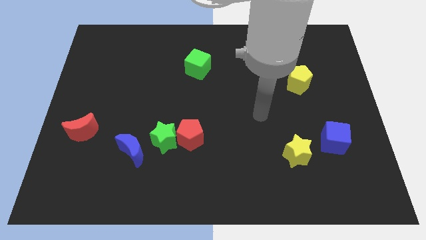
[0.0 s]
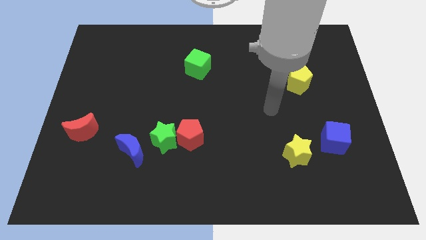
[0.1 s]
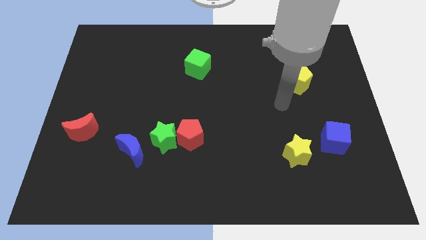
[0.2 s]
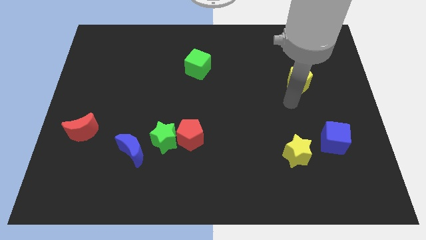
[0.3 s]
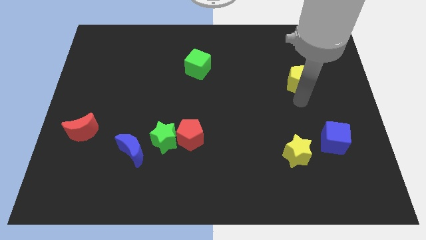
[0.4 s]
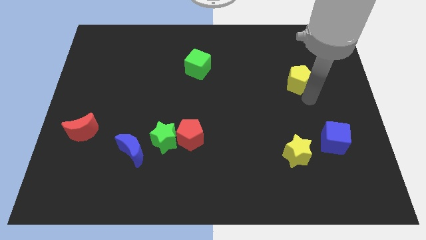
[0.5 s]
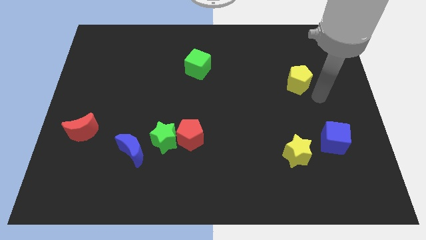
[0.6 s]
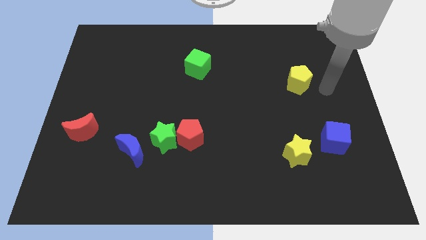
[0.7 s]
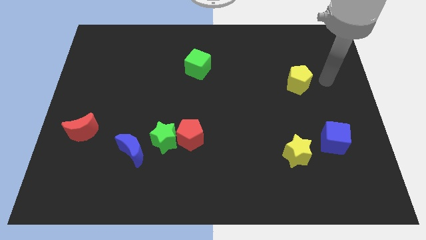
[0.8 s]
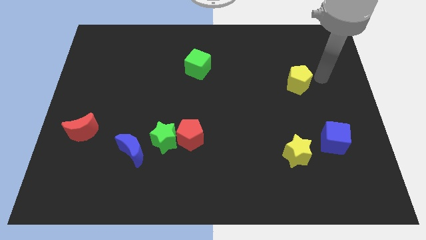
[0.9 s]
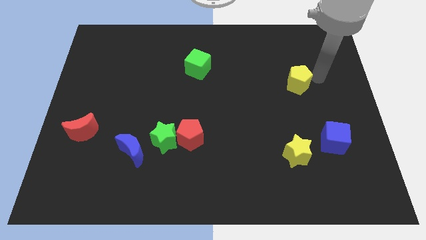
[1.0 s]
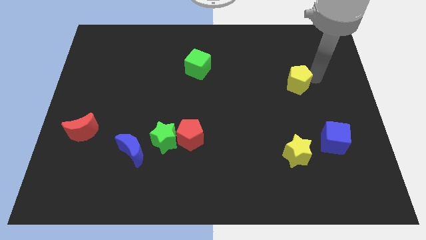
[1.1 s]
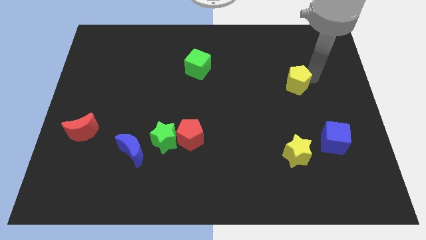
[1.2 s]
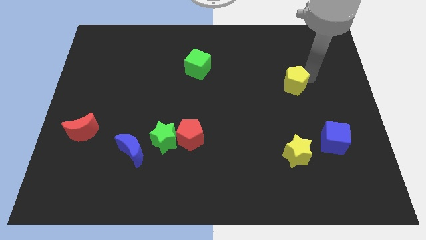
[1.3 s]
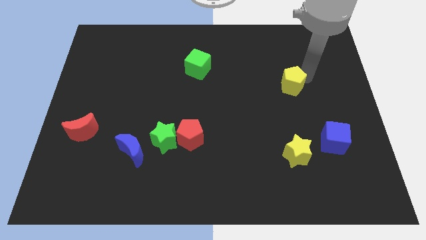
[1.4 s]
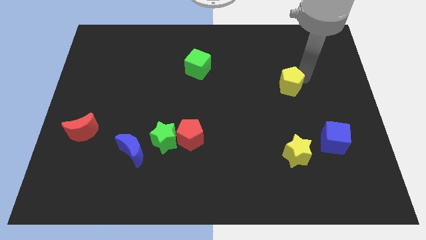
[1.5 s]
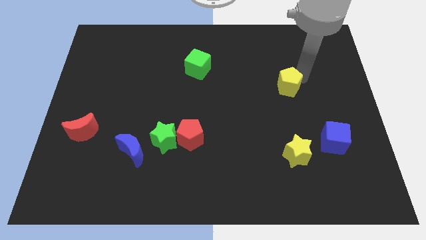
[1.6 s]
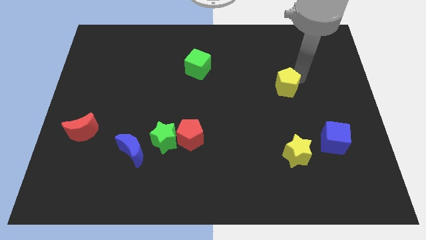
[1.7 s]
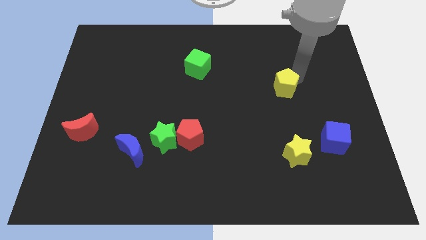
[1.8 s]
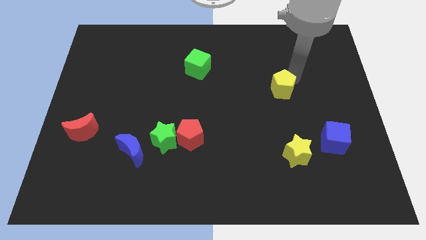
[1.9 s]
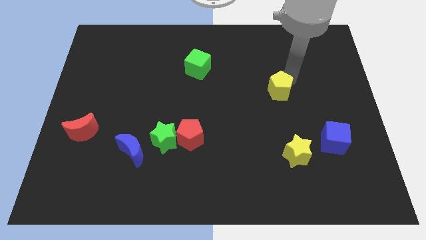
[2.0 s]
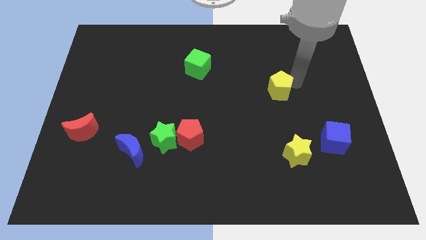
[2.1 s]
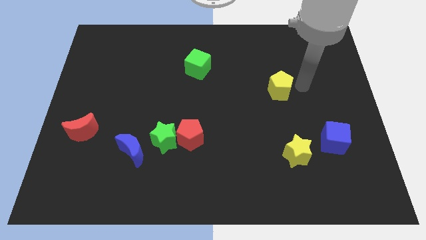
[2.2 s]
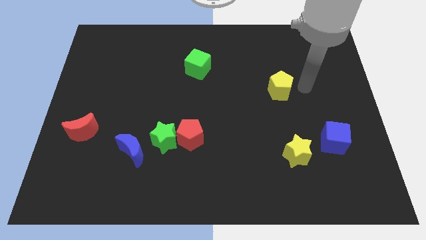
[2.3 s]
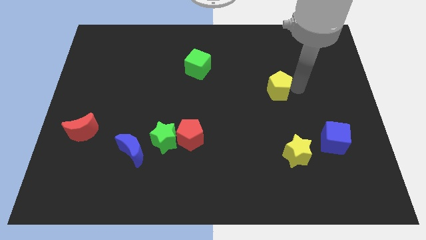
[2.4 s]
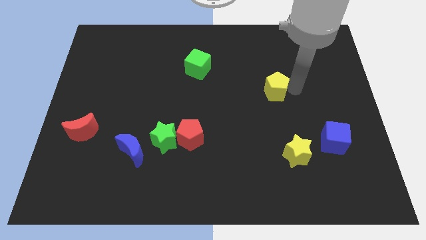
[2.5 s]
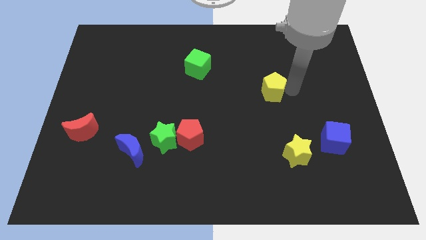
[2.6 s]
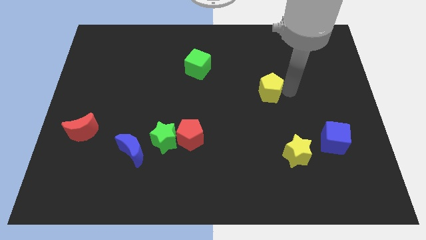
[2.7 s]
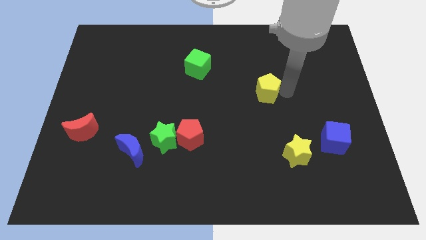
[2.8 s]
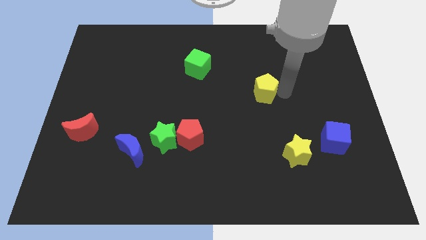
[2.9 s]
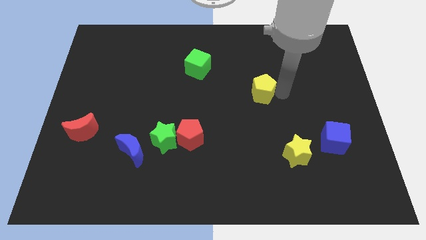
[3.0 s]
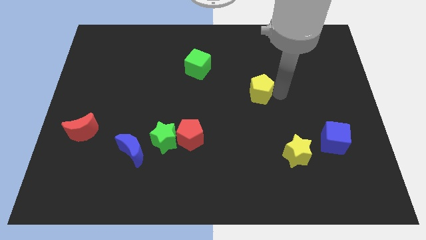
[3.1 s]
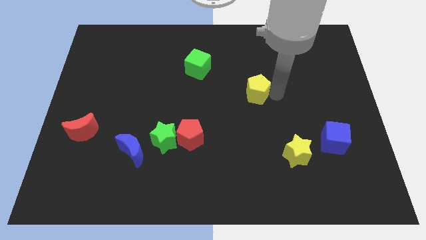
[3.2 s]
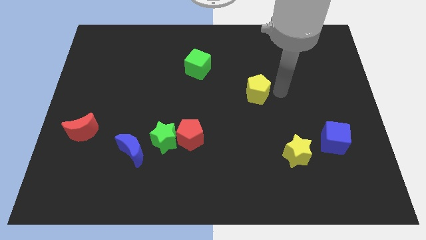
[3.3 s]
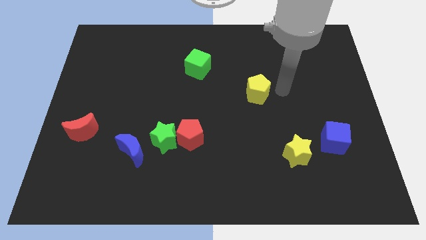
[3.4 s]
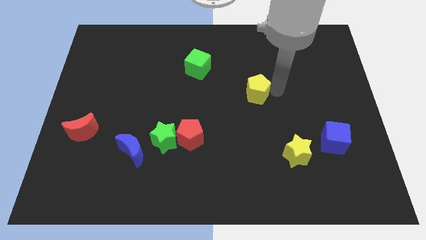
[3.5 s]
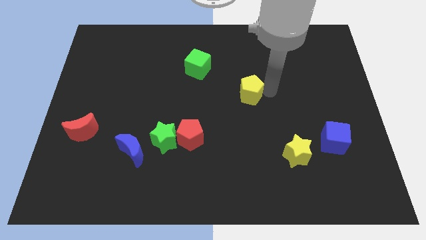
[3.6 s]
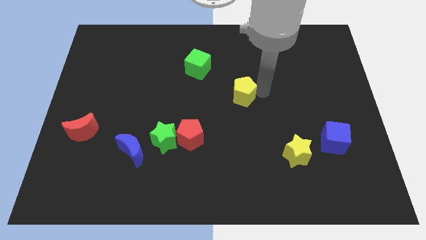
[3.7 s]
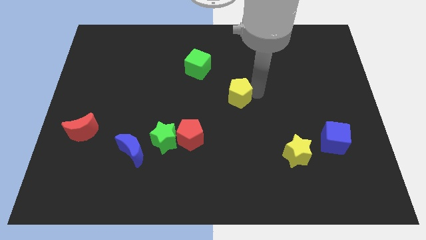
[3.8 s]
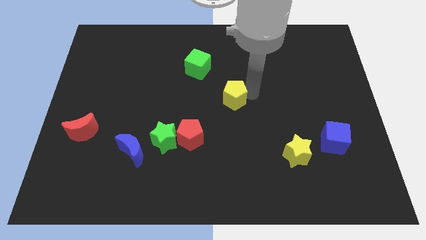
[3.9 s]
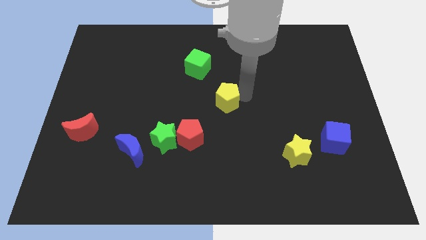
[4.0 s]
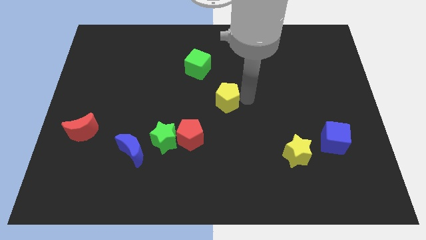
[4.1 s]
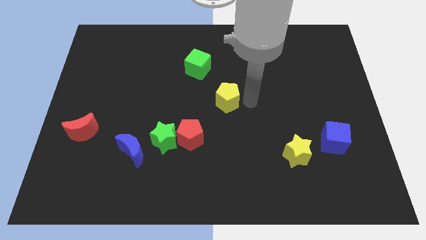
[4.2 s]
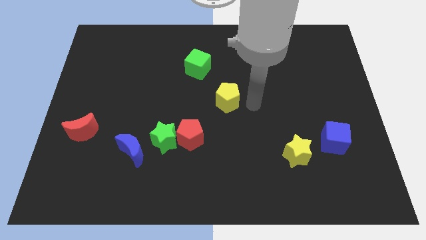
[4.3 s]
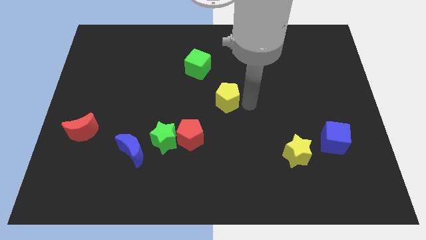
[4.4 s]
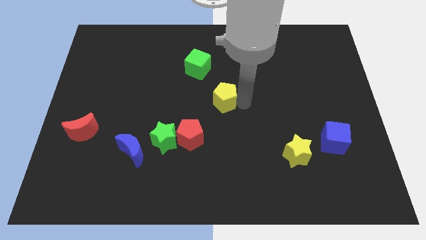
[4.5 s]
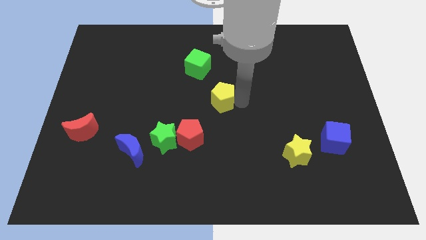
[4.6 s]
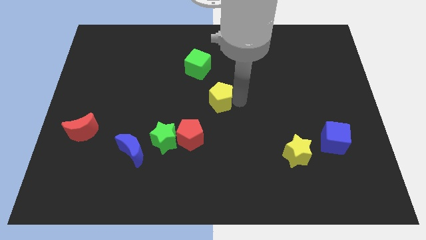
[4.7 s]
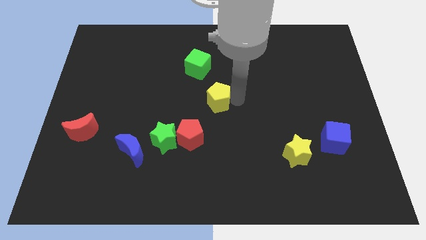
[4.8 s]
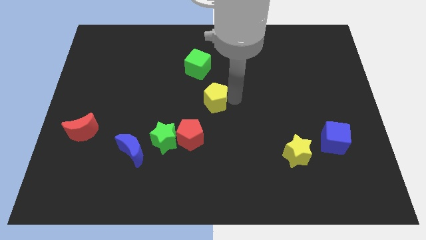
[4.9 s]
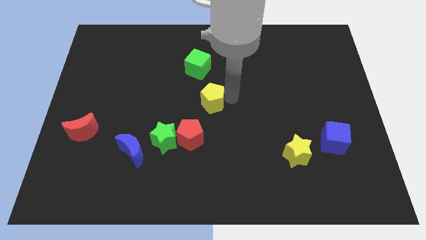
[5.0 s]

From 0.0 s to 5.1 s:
slide the yellow pentagon to the top side of the red pentagon

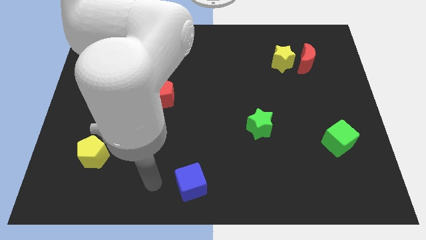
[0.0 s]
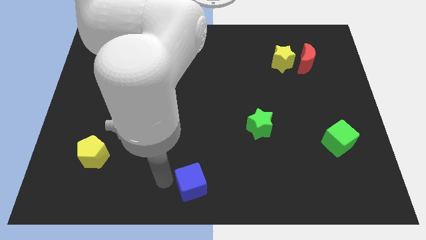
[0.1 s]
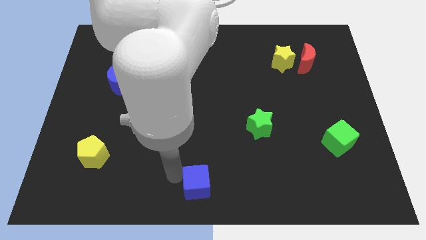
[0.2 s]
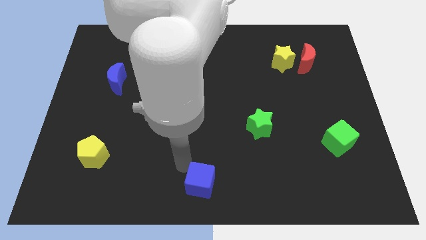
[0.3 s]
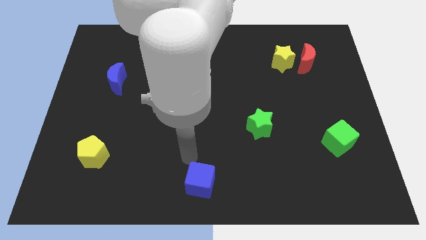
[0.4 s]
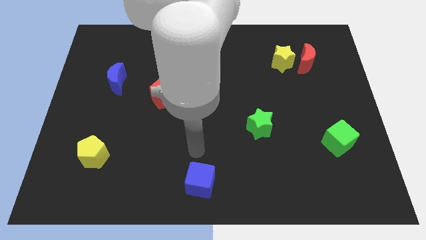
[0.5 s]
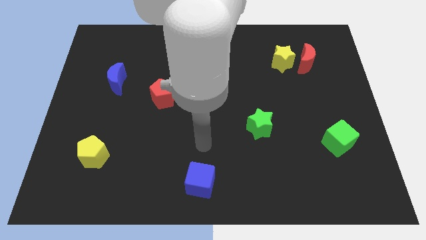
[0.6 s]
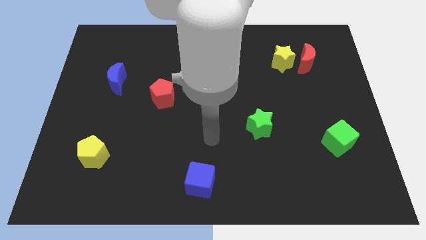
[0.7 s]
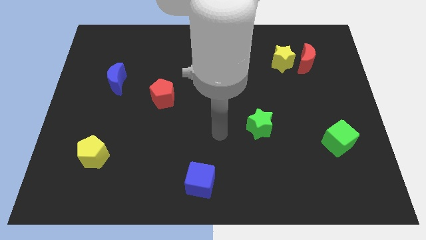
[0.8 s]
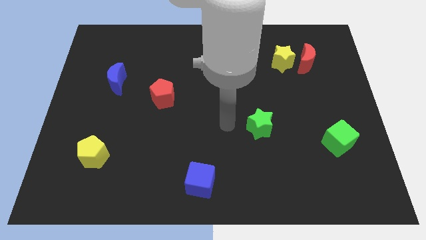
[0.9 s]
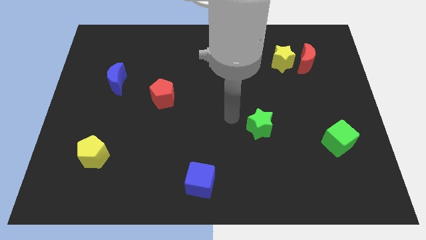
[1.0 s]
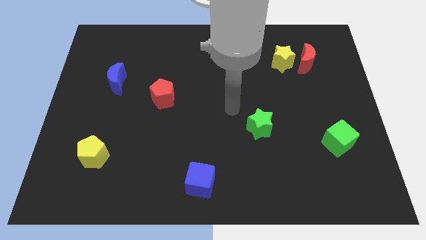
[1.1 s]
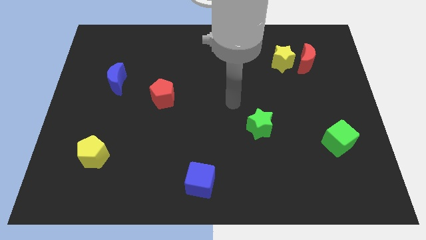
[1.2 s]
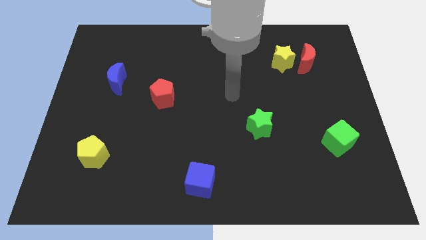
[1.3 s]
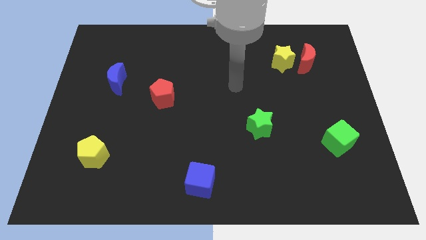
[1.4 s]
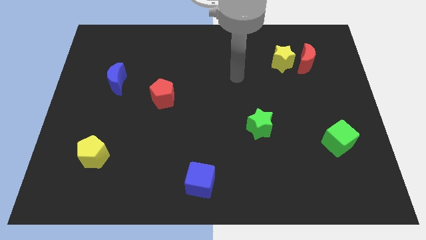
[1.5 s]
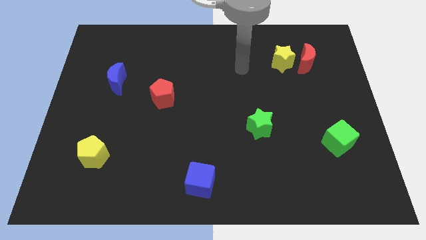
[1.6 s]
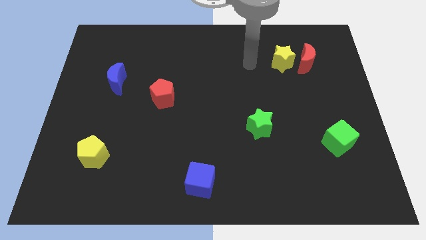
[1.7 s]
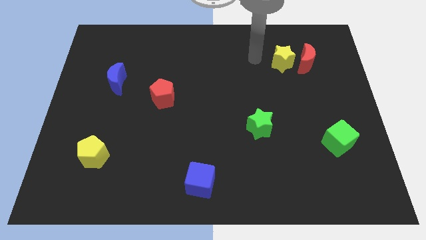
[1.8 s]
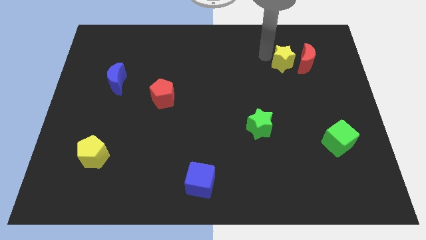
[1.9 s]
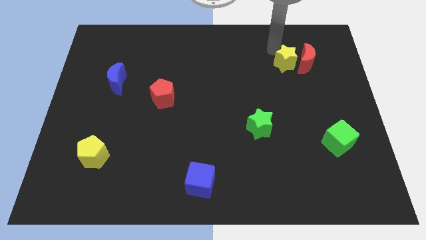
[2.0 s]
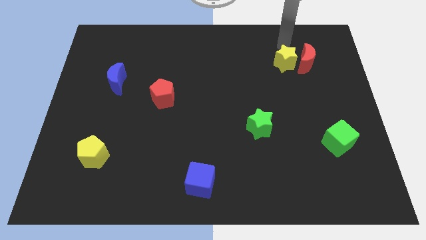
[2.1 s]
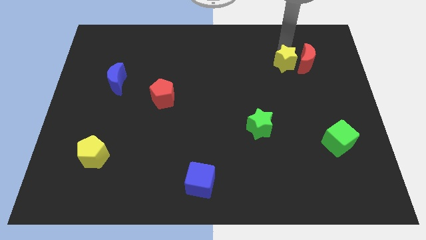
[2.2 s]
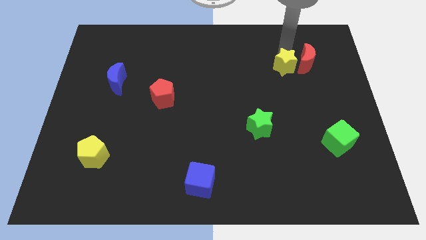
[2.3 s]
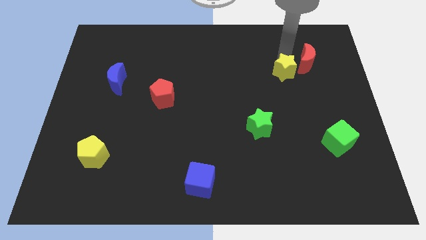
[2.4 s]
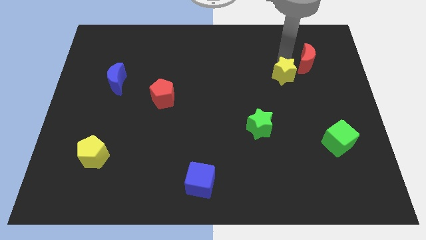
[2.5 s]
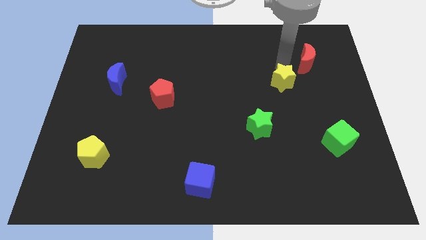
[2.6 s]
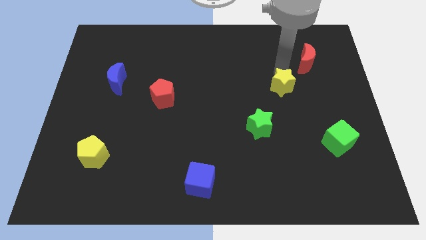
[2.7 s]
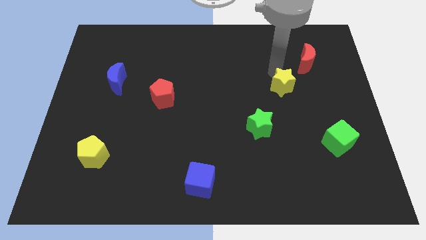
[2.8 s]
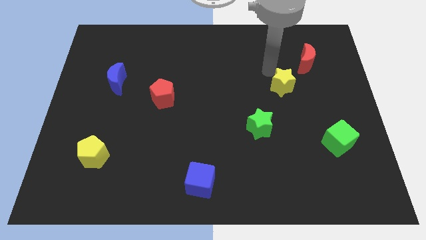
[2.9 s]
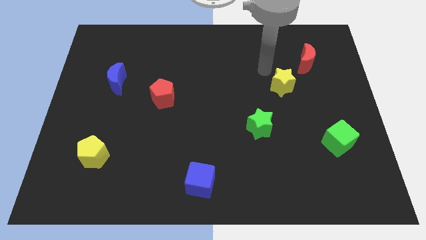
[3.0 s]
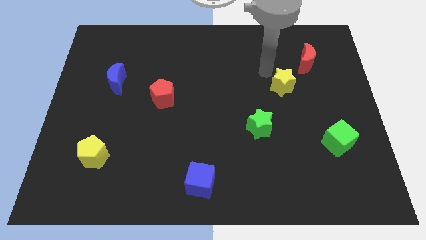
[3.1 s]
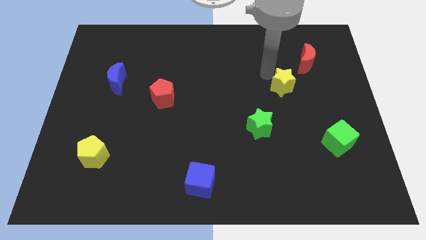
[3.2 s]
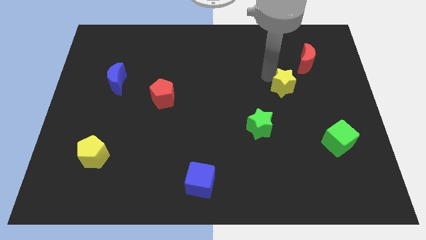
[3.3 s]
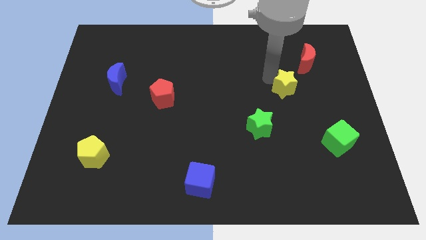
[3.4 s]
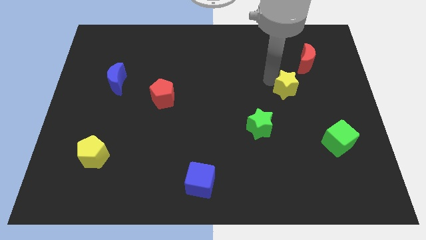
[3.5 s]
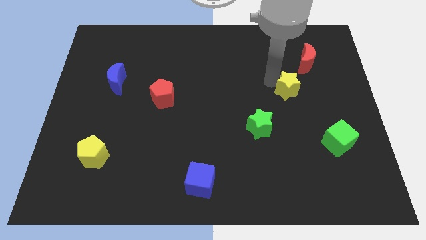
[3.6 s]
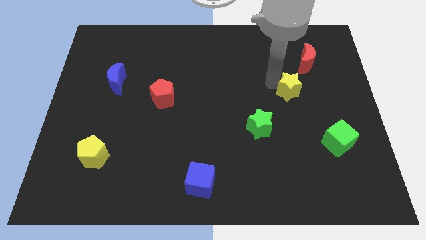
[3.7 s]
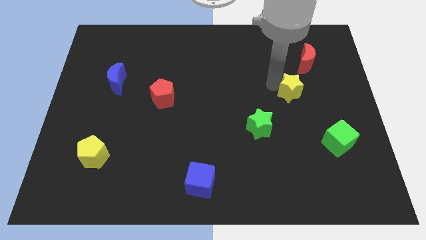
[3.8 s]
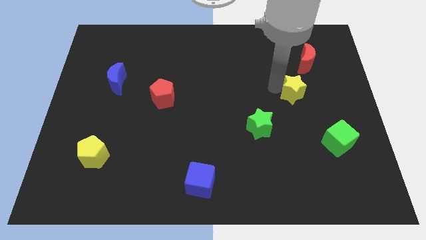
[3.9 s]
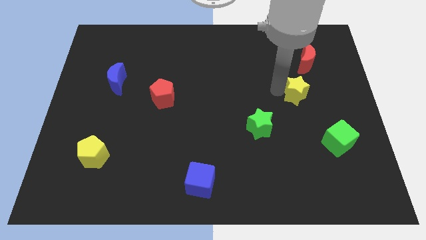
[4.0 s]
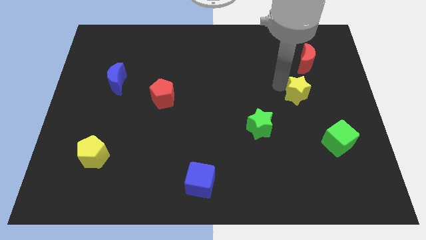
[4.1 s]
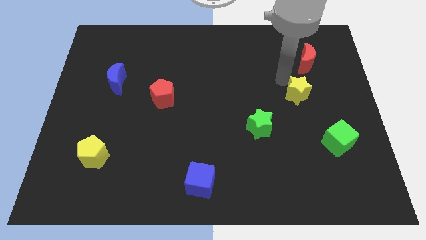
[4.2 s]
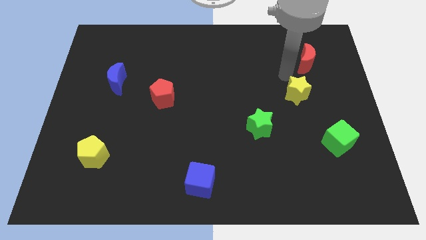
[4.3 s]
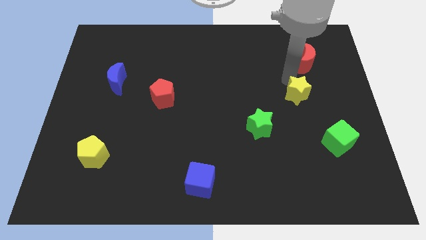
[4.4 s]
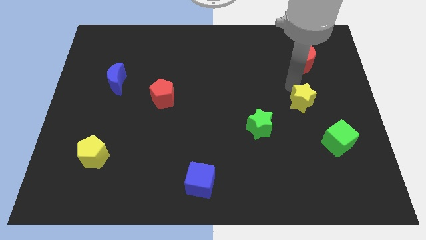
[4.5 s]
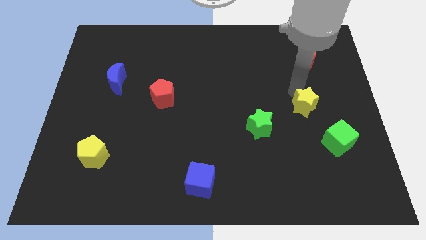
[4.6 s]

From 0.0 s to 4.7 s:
slide the yellow star diagonally up and to the left of the green cube
